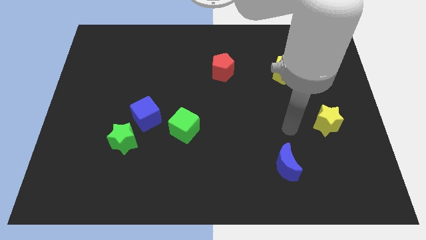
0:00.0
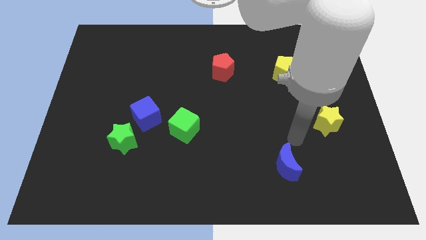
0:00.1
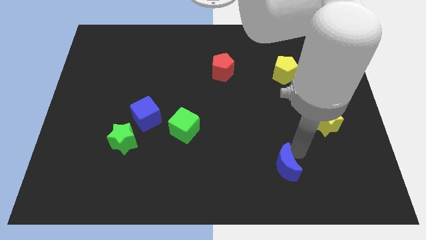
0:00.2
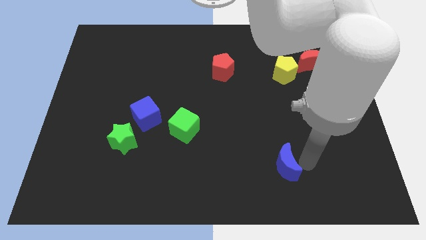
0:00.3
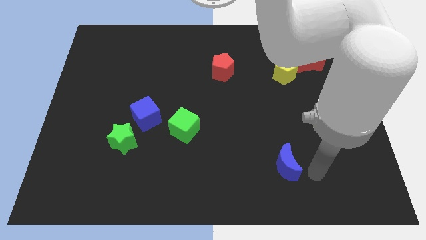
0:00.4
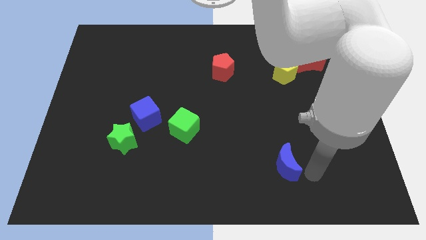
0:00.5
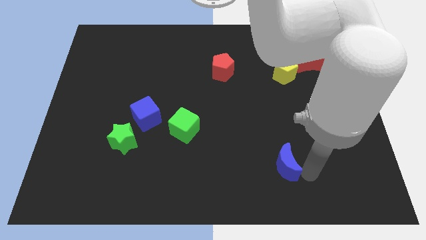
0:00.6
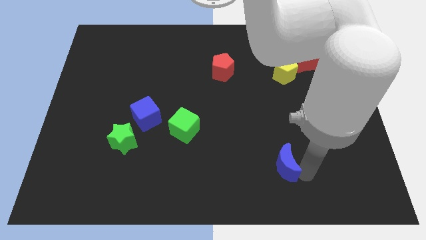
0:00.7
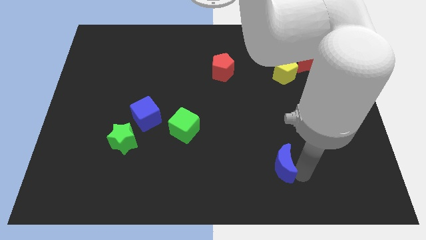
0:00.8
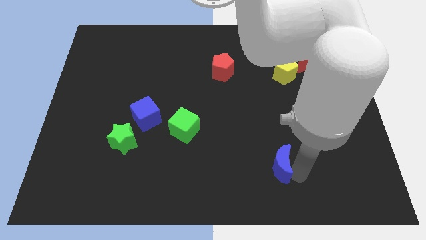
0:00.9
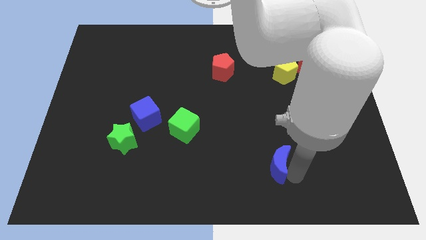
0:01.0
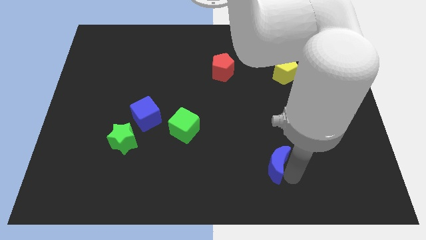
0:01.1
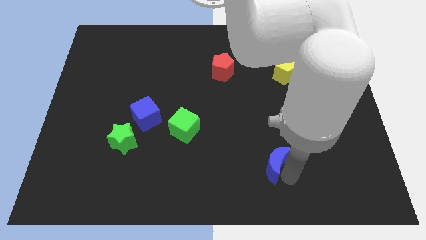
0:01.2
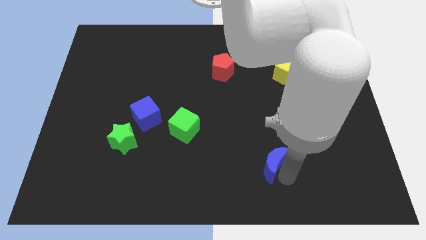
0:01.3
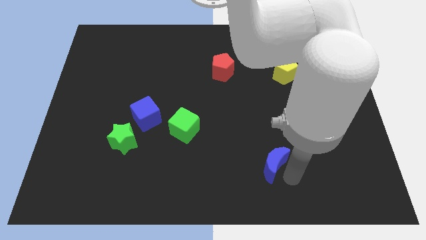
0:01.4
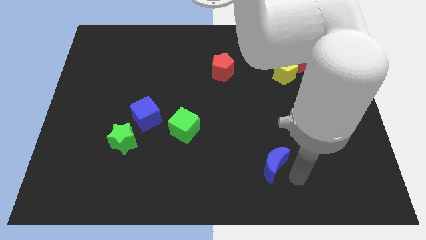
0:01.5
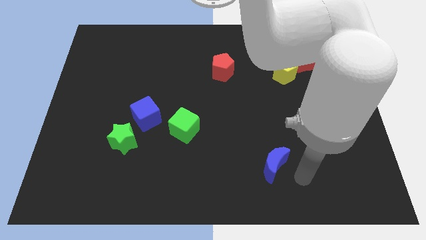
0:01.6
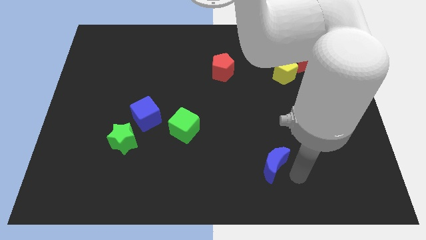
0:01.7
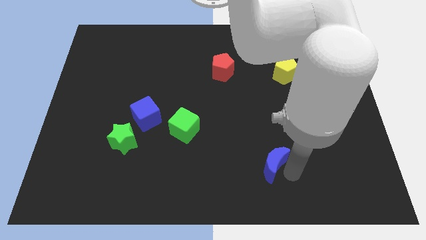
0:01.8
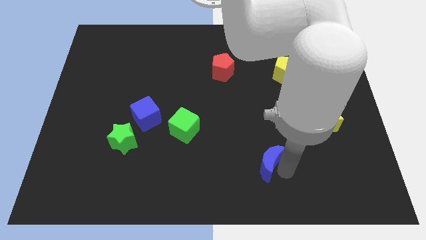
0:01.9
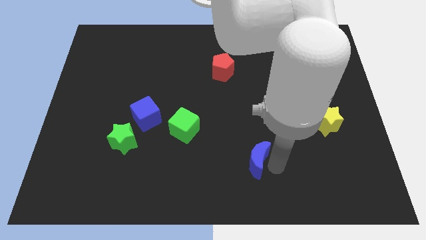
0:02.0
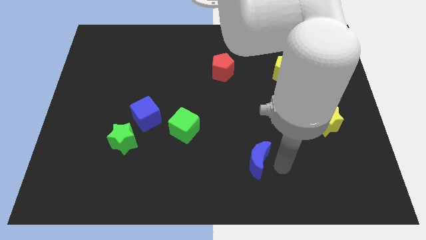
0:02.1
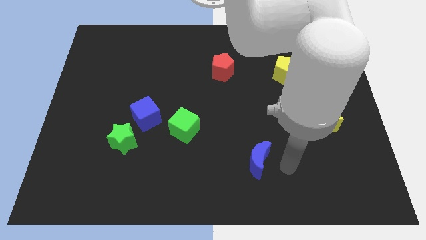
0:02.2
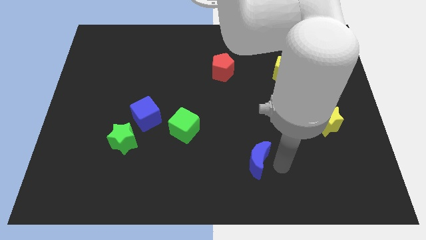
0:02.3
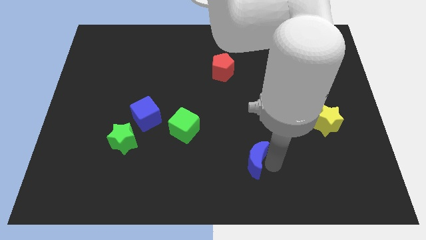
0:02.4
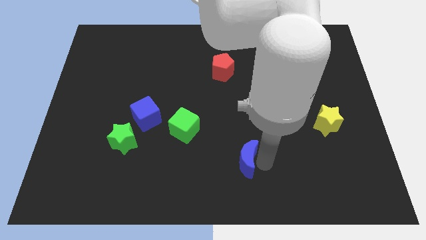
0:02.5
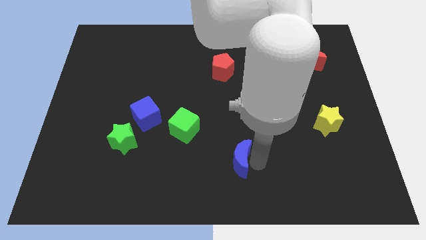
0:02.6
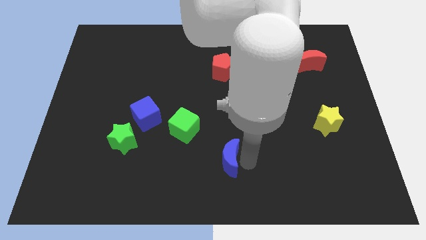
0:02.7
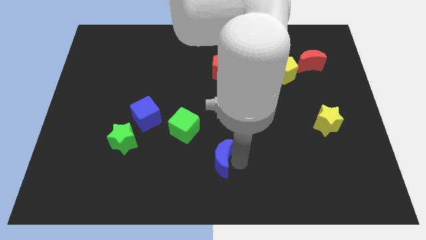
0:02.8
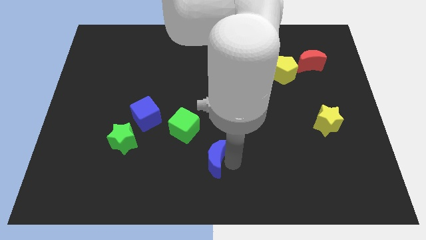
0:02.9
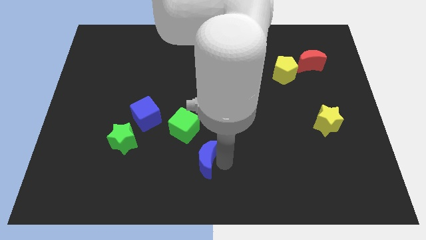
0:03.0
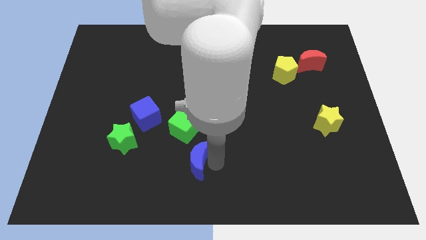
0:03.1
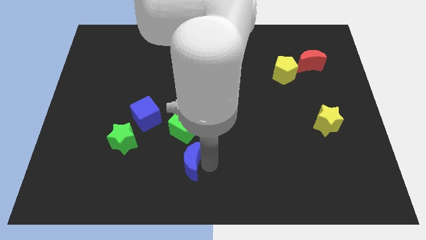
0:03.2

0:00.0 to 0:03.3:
slide the blue moon to the left

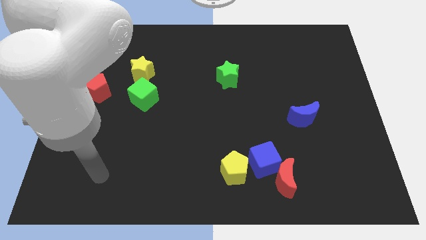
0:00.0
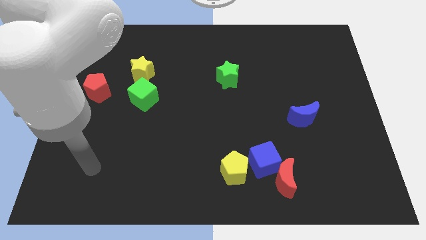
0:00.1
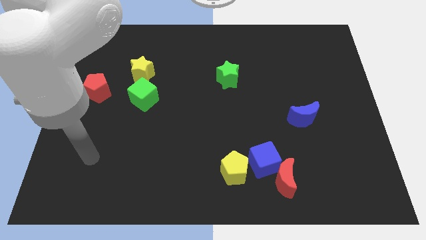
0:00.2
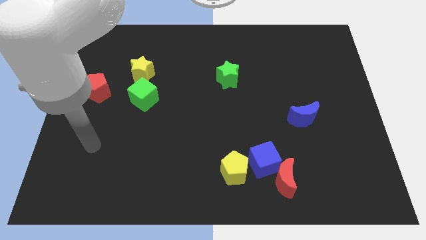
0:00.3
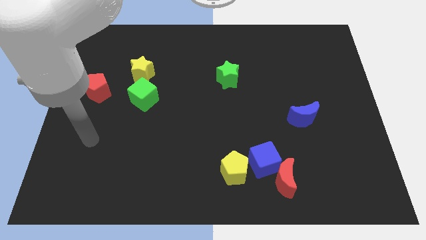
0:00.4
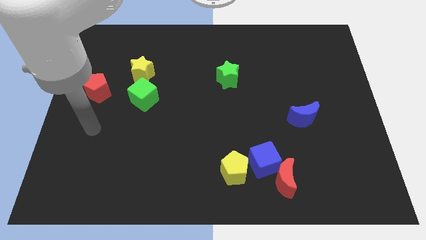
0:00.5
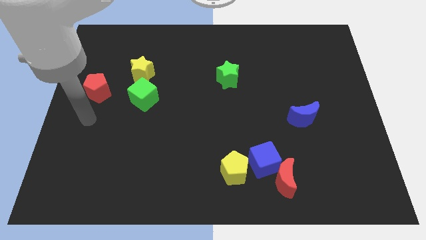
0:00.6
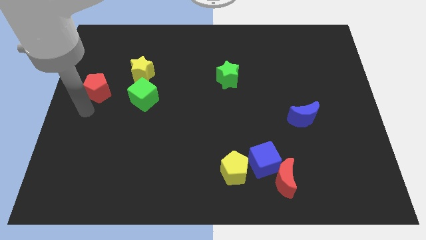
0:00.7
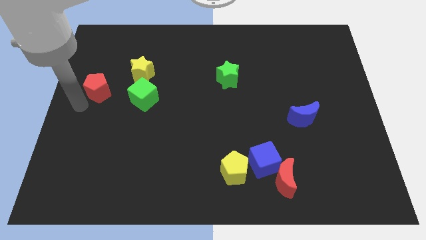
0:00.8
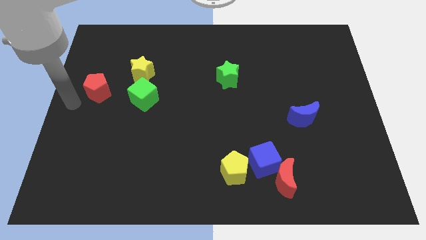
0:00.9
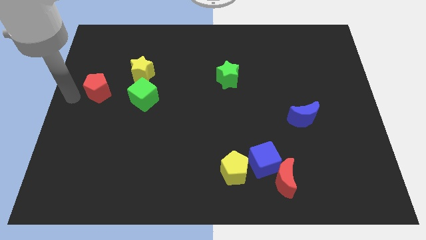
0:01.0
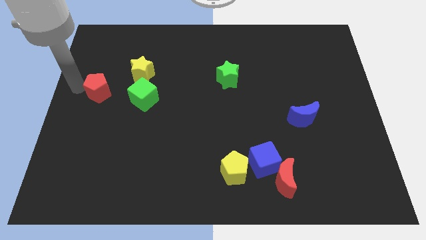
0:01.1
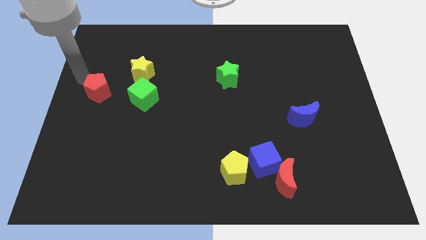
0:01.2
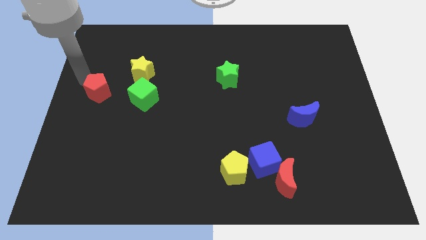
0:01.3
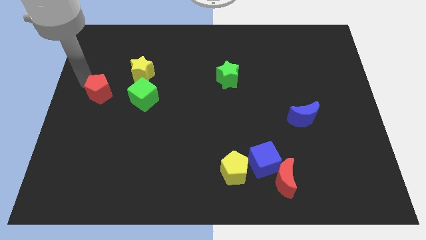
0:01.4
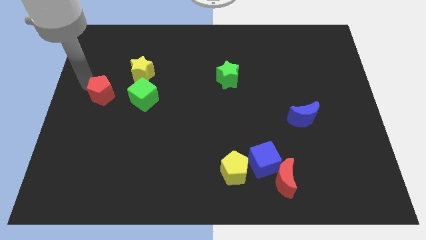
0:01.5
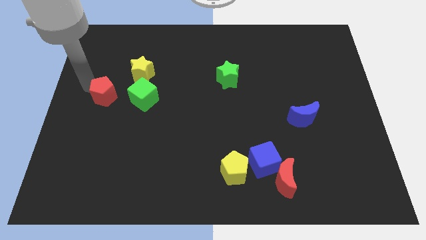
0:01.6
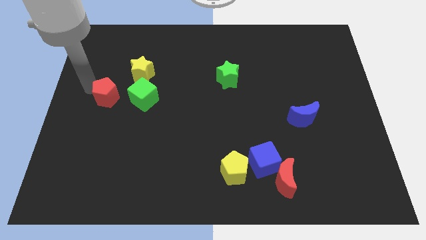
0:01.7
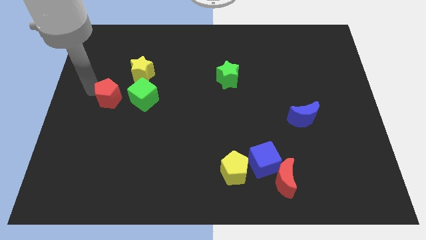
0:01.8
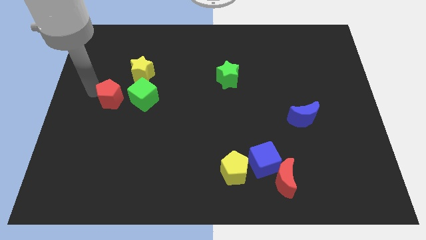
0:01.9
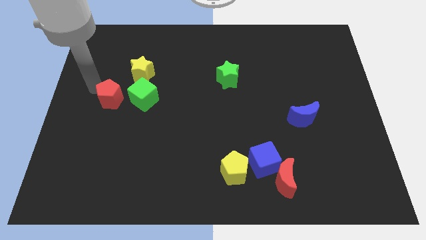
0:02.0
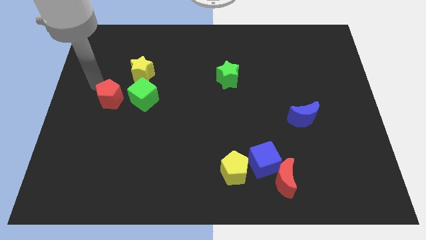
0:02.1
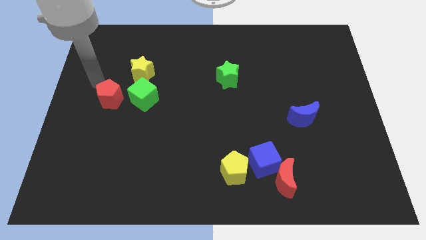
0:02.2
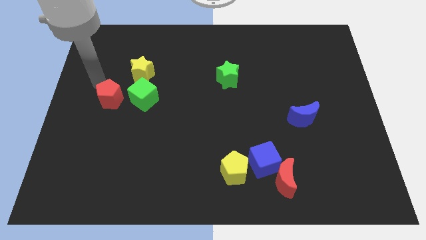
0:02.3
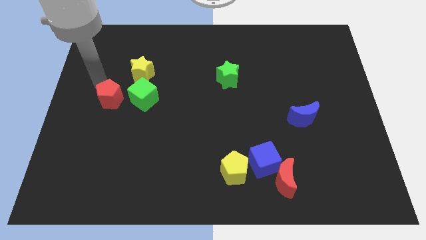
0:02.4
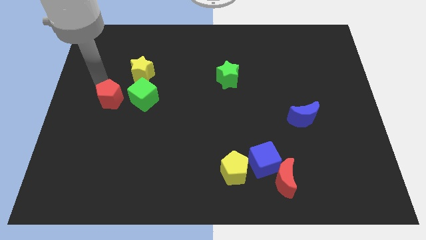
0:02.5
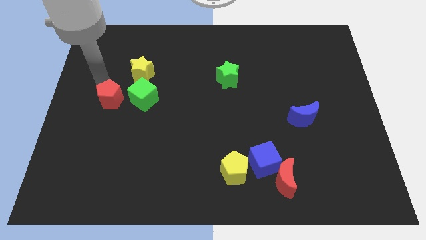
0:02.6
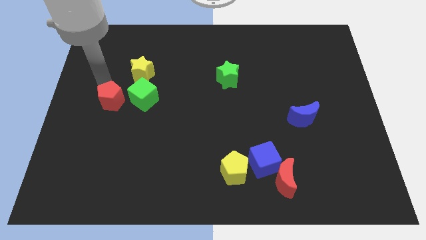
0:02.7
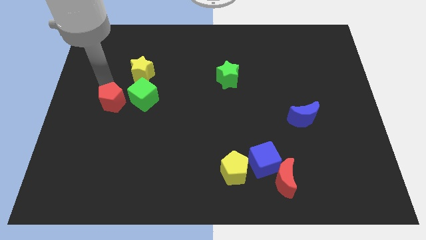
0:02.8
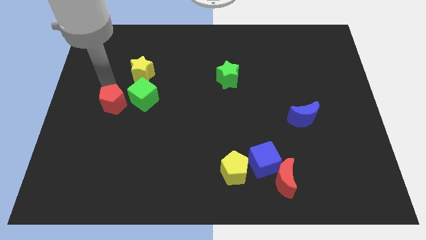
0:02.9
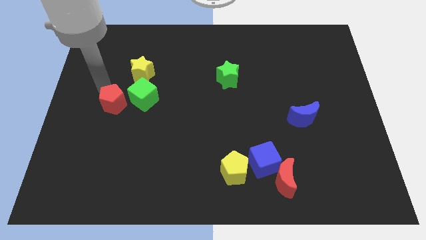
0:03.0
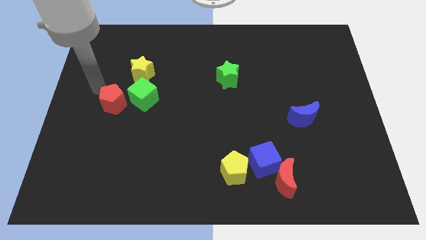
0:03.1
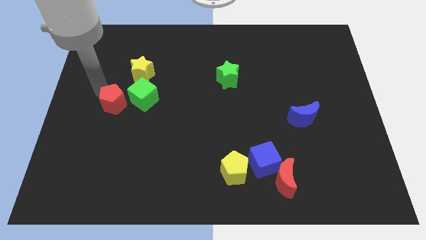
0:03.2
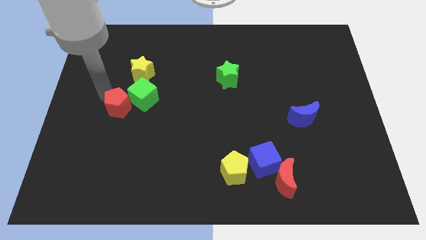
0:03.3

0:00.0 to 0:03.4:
move the red pentagon down and right diagonally a bit

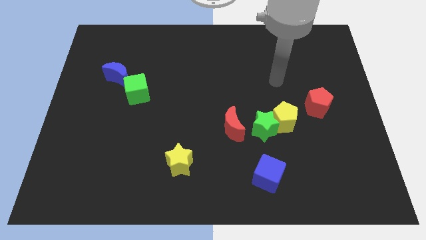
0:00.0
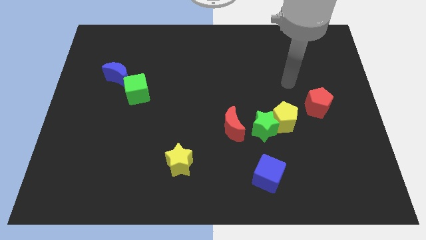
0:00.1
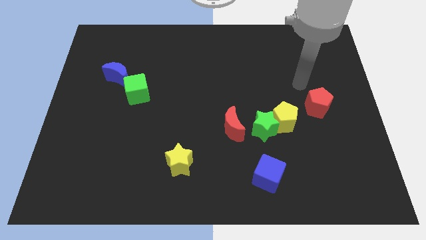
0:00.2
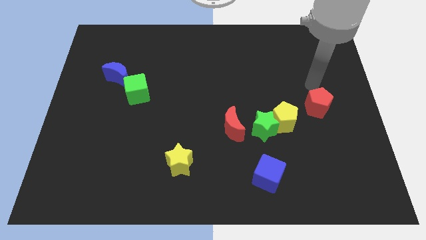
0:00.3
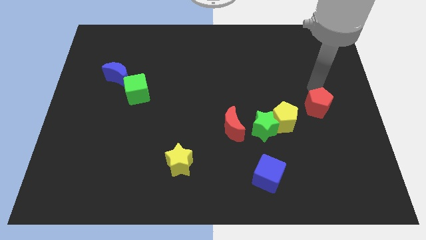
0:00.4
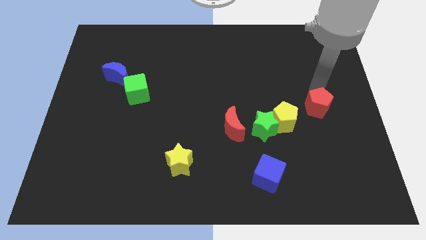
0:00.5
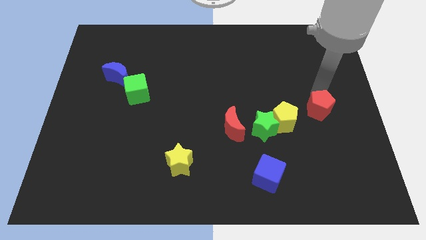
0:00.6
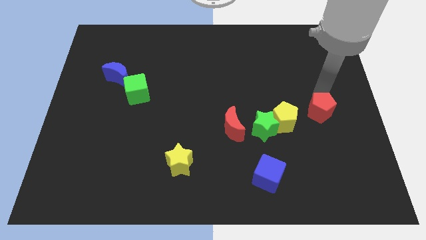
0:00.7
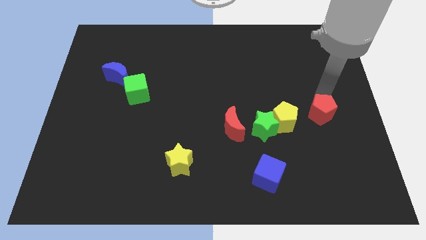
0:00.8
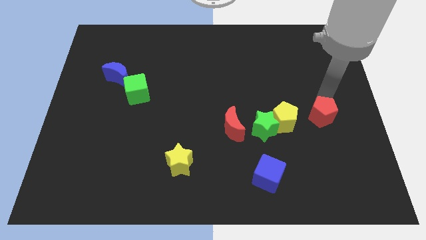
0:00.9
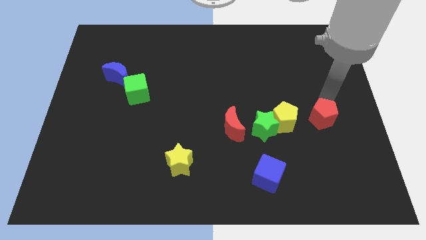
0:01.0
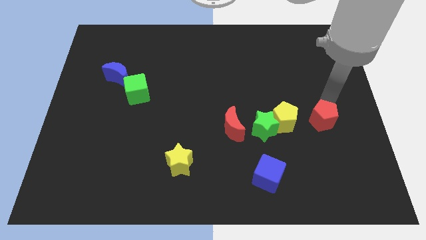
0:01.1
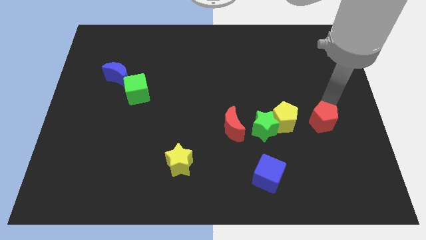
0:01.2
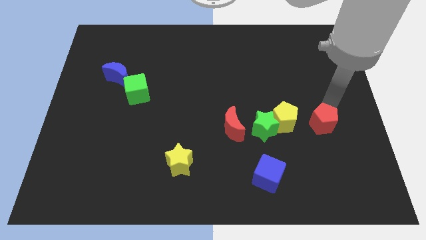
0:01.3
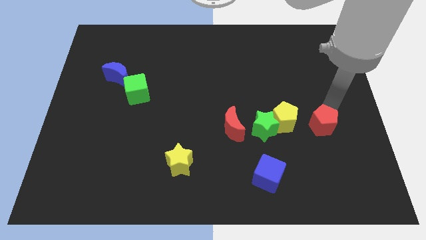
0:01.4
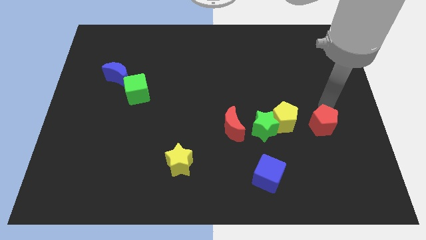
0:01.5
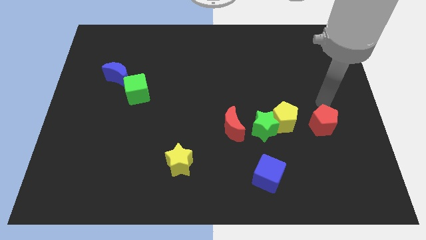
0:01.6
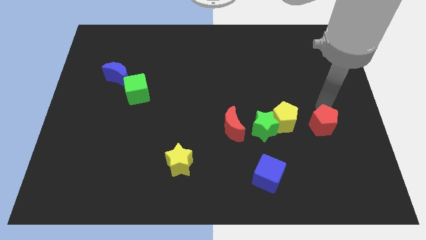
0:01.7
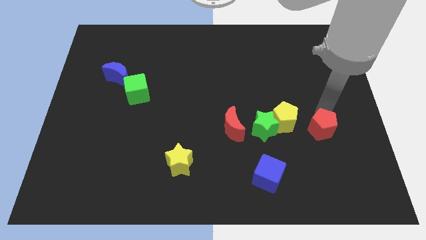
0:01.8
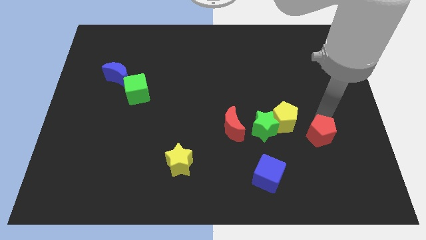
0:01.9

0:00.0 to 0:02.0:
push the red pentagon slightly downwards
